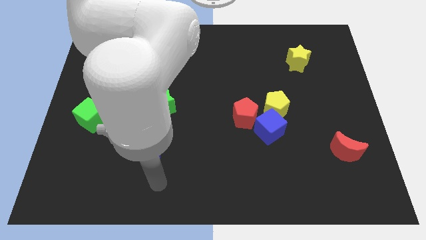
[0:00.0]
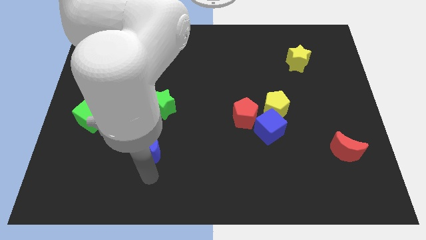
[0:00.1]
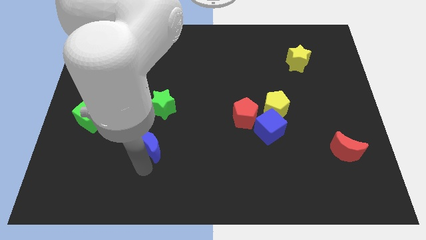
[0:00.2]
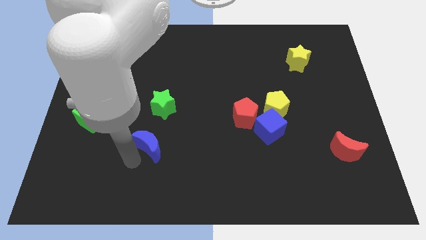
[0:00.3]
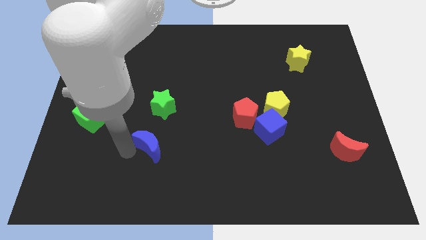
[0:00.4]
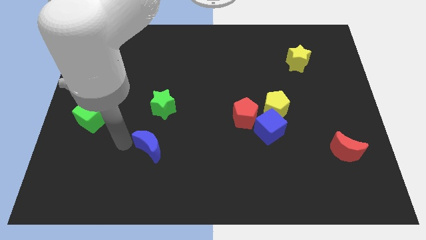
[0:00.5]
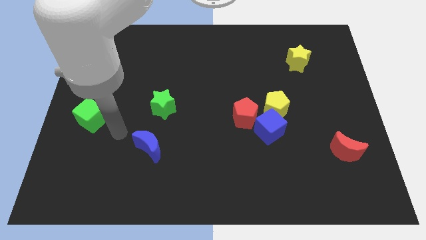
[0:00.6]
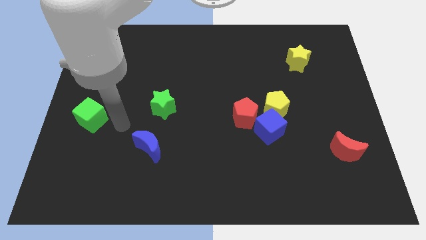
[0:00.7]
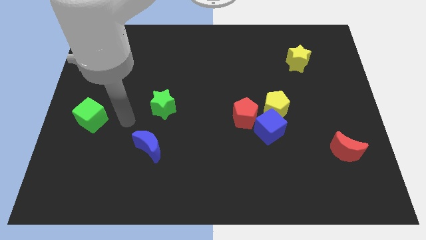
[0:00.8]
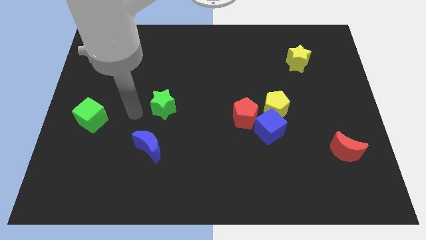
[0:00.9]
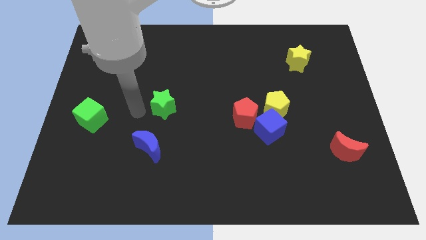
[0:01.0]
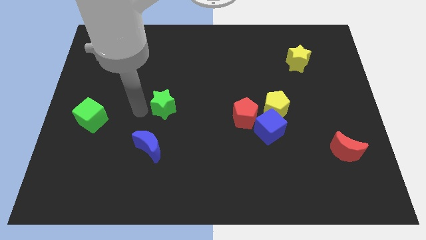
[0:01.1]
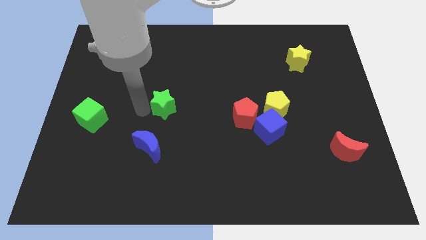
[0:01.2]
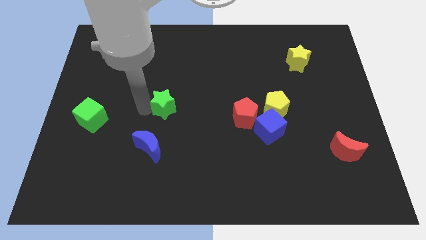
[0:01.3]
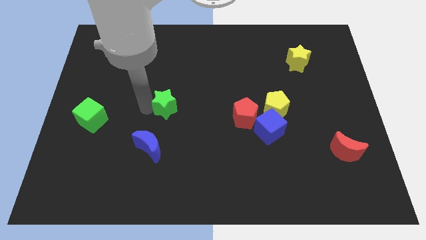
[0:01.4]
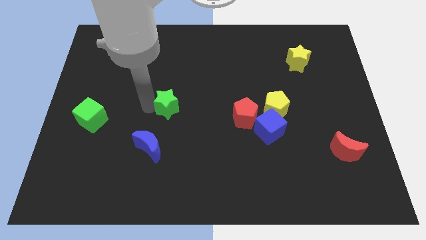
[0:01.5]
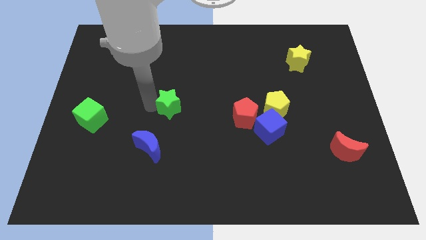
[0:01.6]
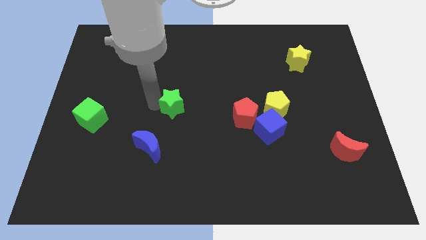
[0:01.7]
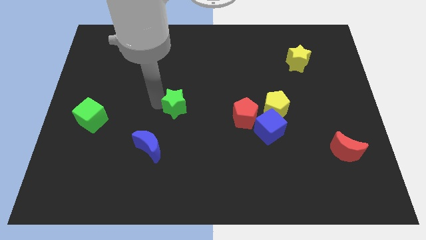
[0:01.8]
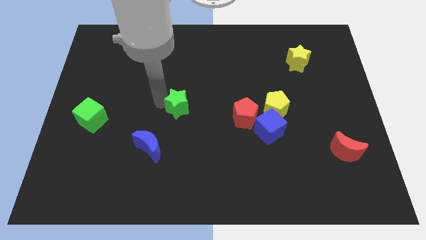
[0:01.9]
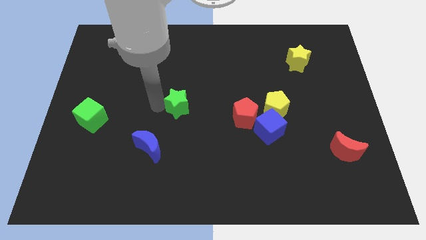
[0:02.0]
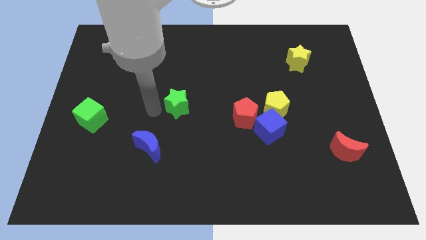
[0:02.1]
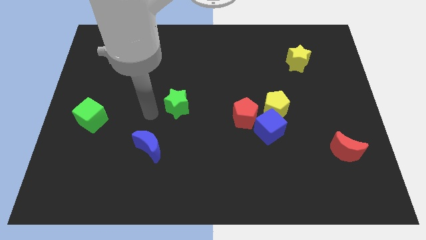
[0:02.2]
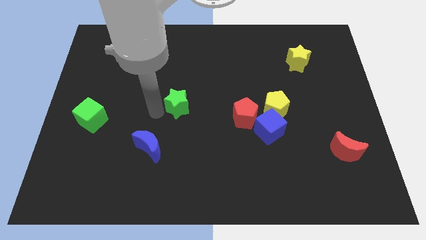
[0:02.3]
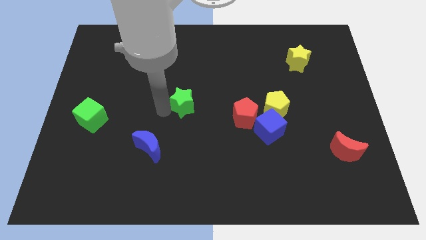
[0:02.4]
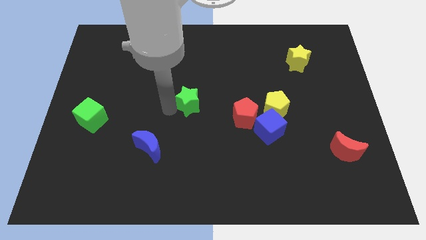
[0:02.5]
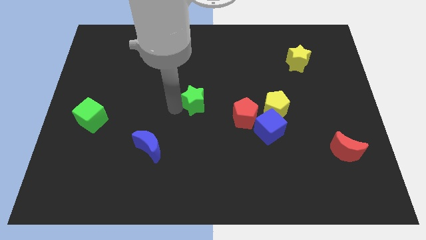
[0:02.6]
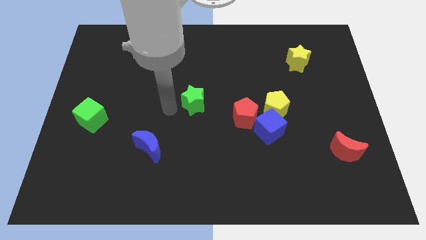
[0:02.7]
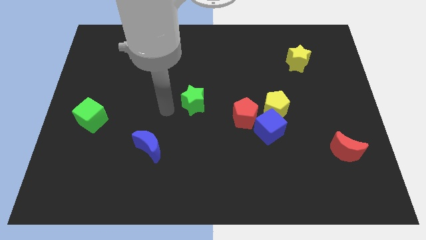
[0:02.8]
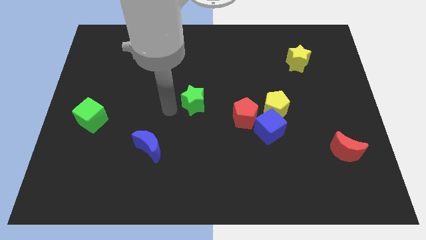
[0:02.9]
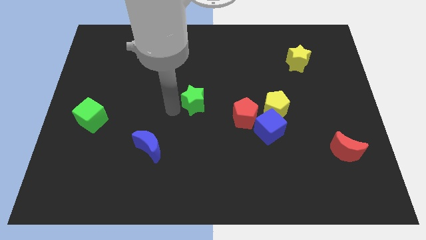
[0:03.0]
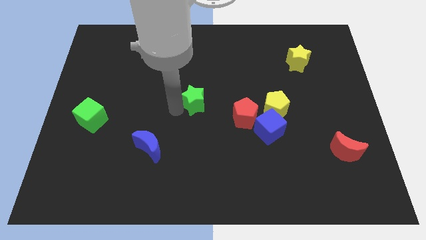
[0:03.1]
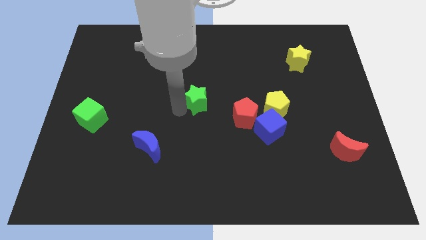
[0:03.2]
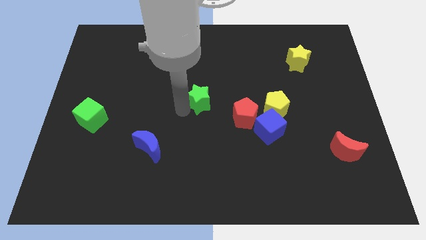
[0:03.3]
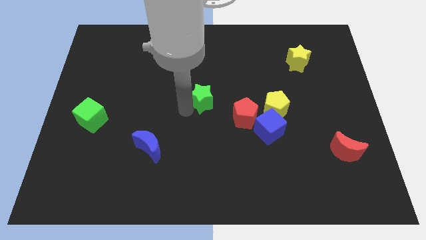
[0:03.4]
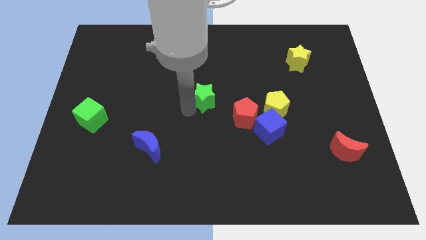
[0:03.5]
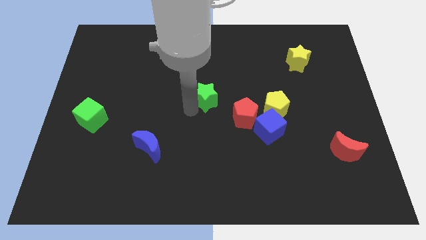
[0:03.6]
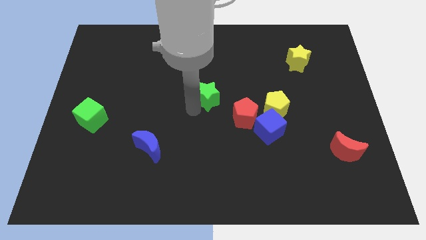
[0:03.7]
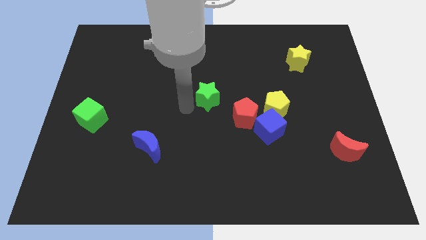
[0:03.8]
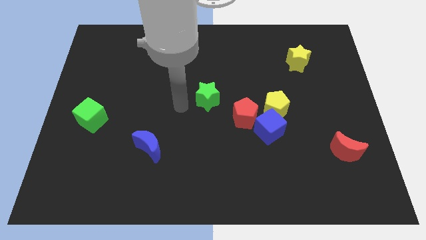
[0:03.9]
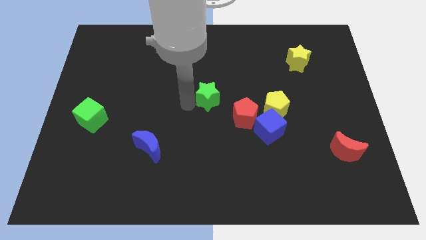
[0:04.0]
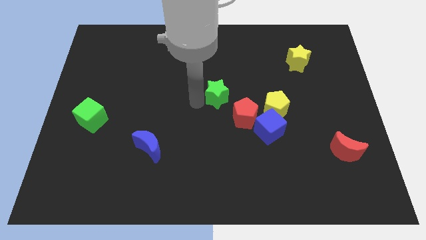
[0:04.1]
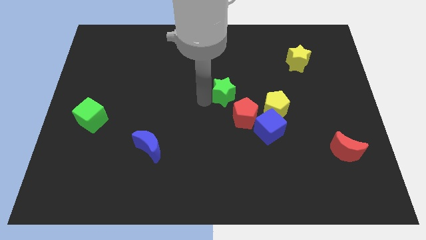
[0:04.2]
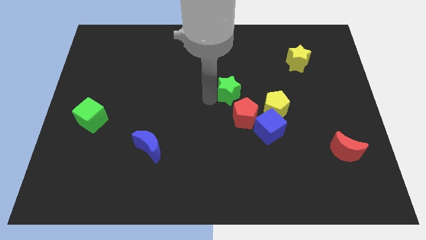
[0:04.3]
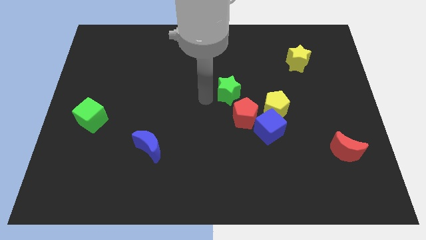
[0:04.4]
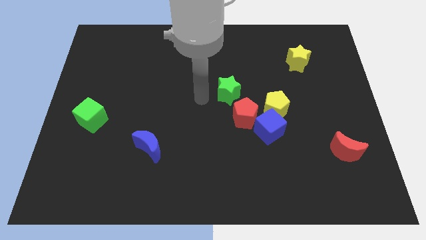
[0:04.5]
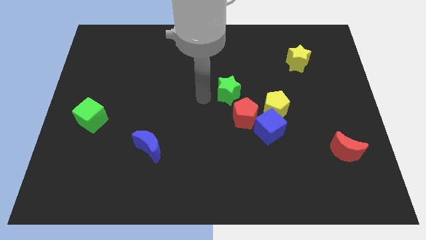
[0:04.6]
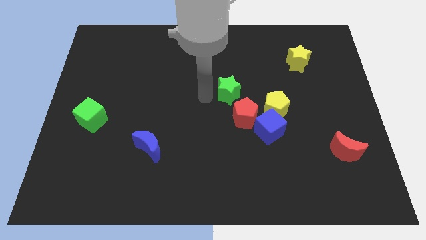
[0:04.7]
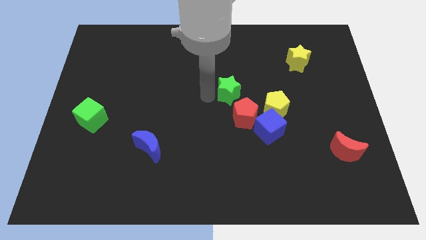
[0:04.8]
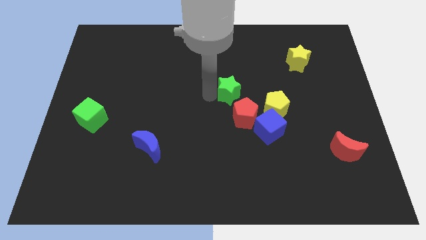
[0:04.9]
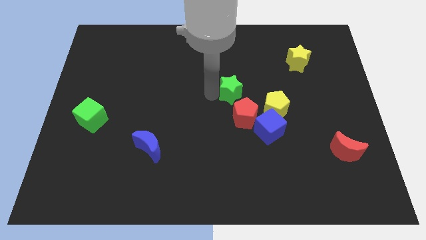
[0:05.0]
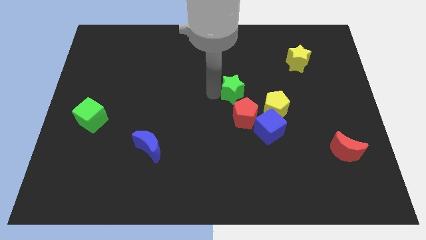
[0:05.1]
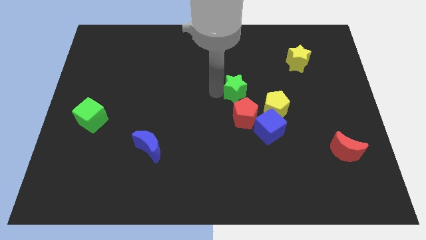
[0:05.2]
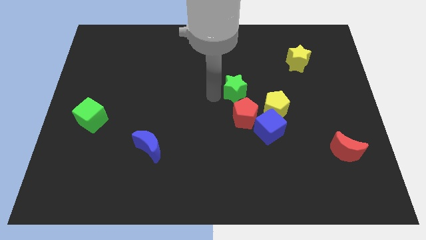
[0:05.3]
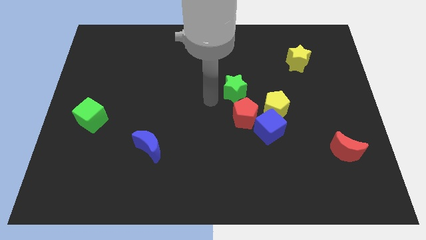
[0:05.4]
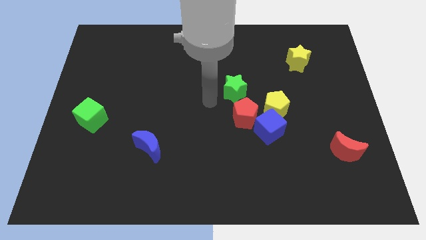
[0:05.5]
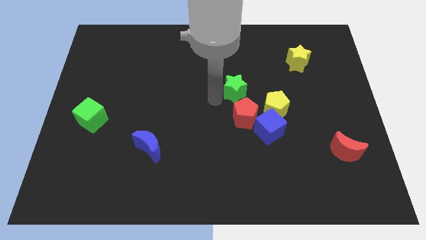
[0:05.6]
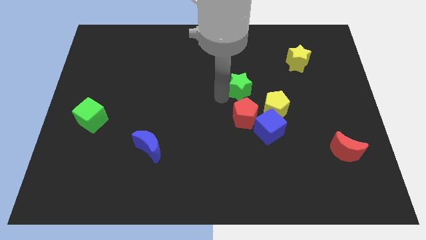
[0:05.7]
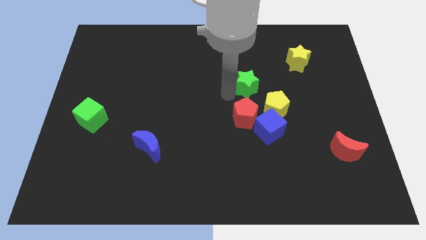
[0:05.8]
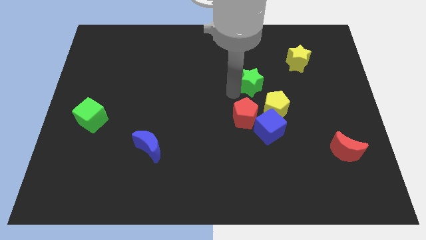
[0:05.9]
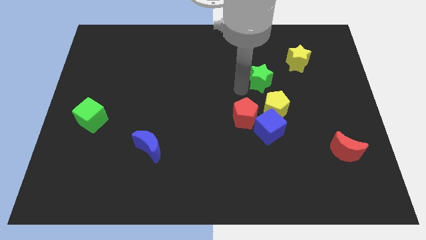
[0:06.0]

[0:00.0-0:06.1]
put the green star to the bottom left side of the yellow star

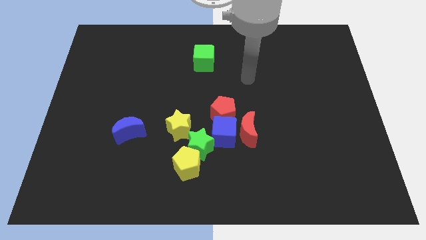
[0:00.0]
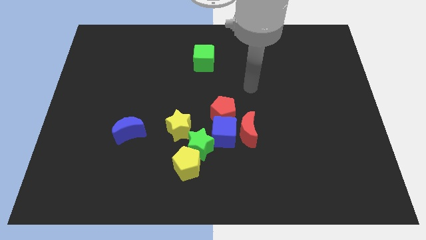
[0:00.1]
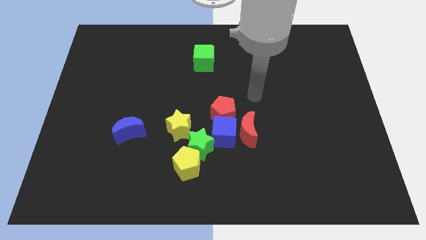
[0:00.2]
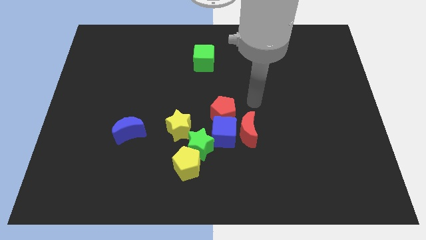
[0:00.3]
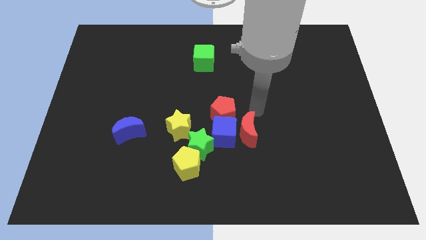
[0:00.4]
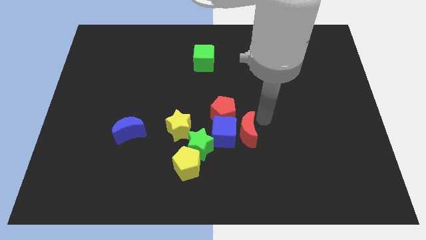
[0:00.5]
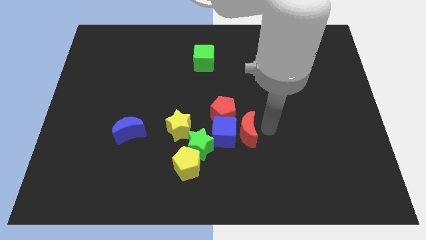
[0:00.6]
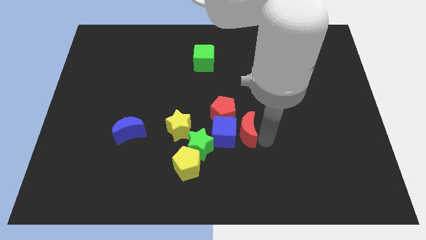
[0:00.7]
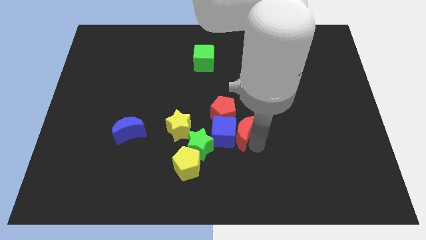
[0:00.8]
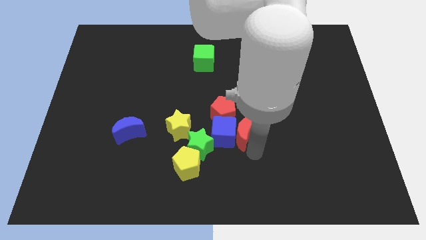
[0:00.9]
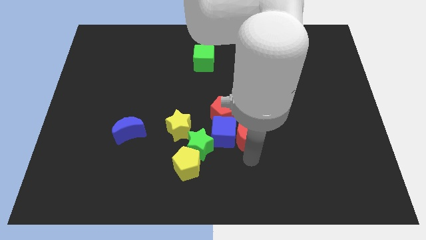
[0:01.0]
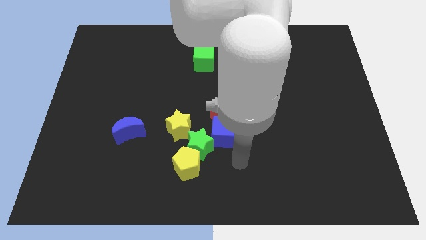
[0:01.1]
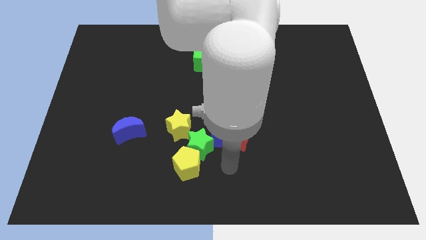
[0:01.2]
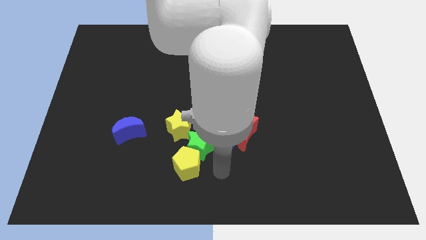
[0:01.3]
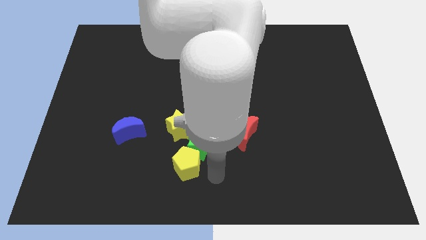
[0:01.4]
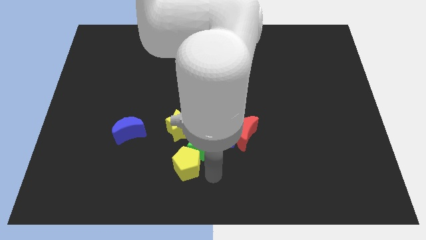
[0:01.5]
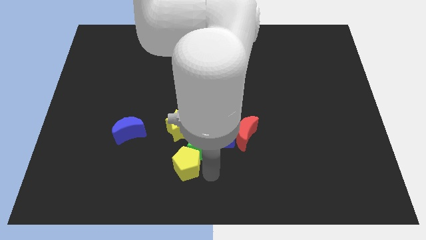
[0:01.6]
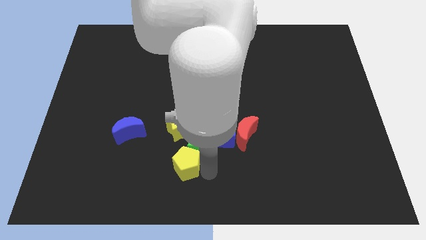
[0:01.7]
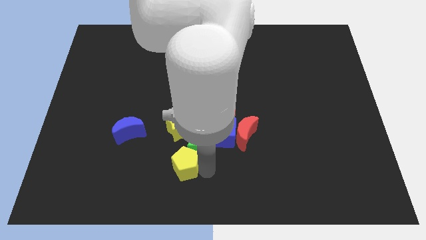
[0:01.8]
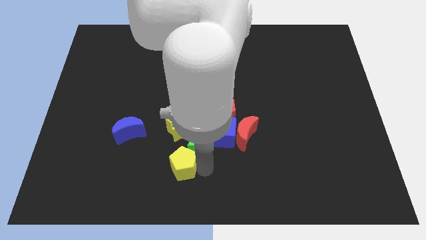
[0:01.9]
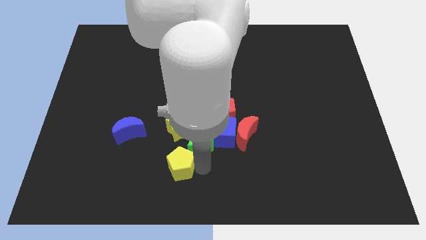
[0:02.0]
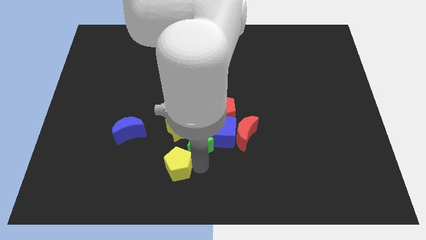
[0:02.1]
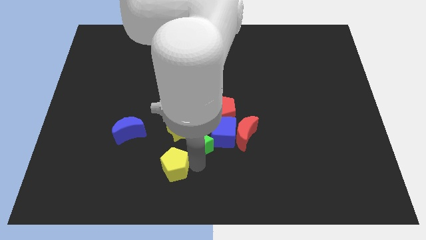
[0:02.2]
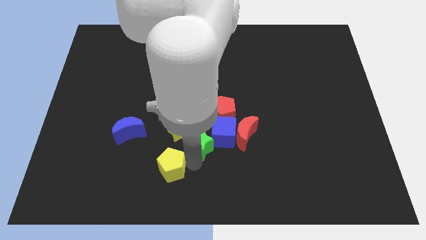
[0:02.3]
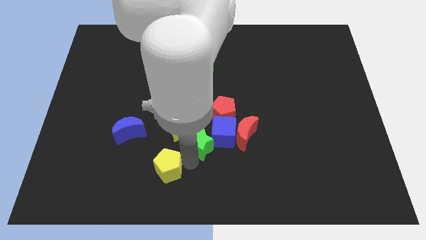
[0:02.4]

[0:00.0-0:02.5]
put the yellow pentagon diagonally down and to the right of the blue moon
